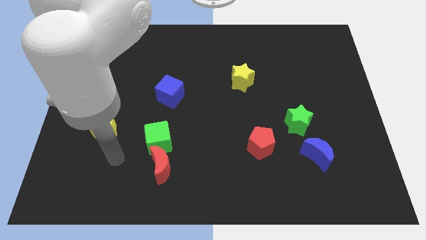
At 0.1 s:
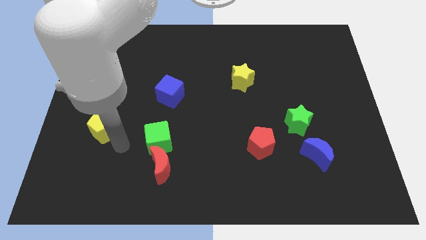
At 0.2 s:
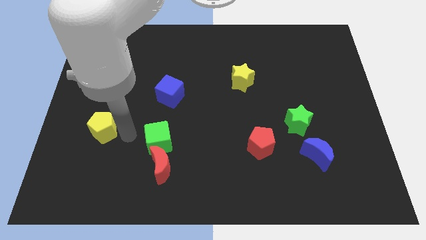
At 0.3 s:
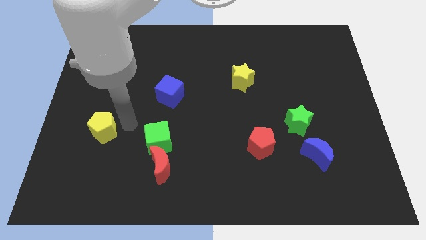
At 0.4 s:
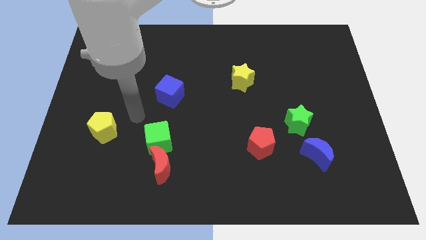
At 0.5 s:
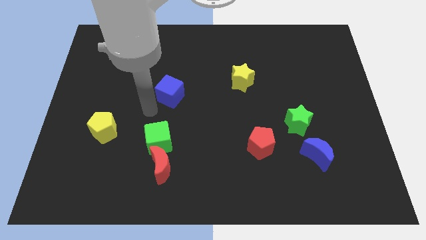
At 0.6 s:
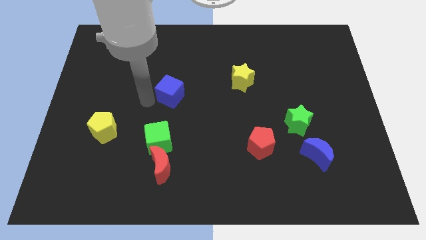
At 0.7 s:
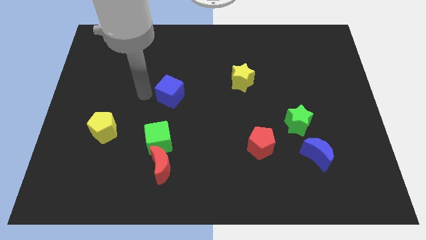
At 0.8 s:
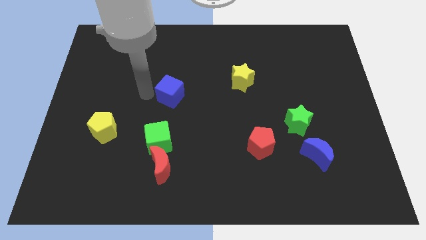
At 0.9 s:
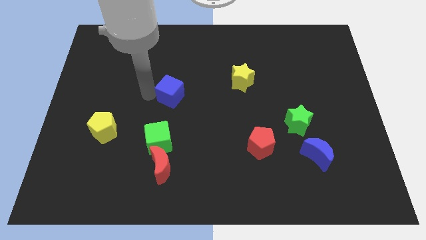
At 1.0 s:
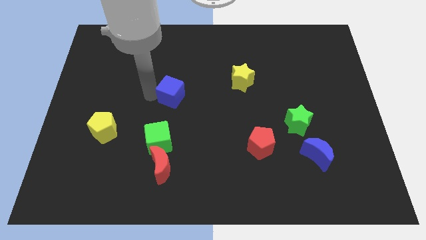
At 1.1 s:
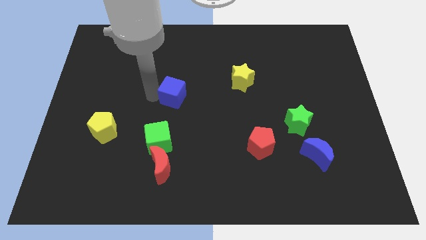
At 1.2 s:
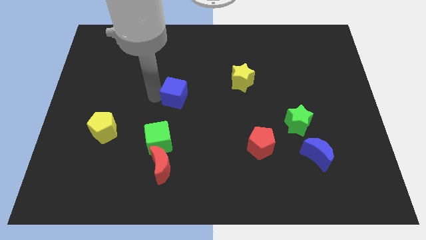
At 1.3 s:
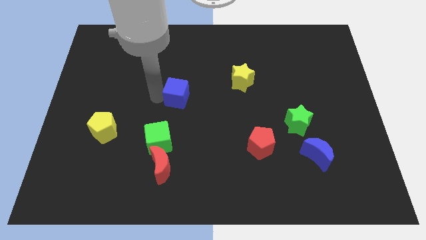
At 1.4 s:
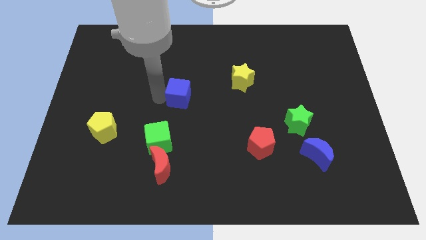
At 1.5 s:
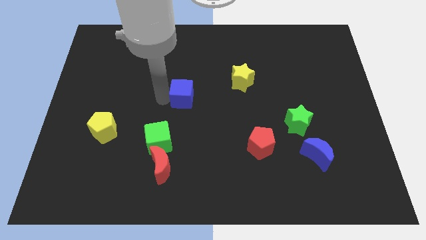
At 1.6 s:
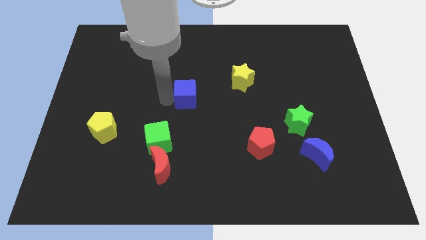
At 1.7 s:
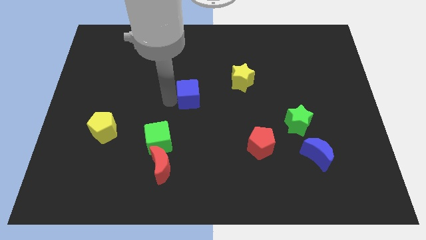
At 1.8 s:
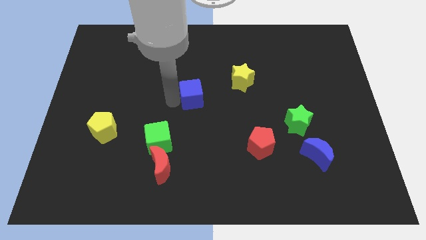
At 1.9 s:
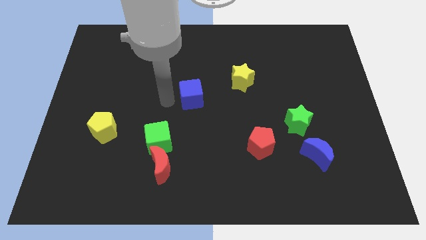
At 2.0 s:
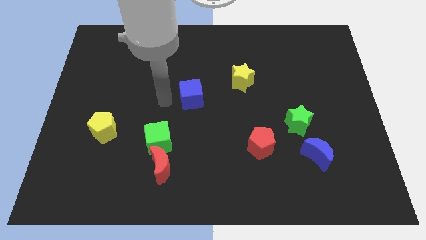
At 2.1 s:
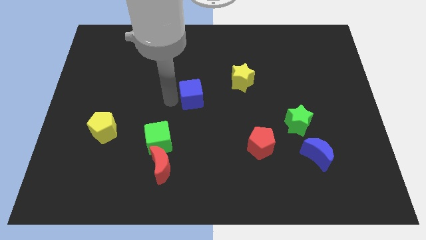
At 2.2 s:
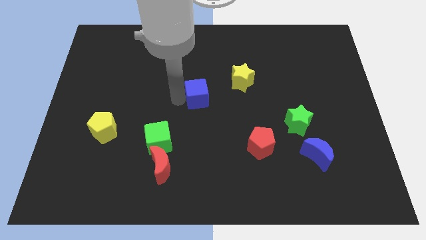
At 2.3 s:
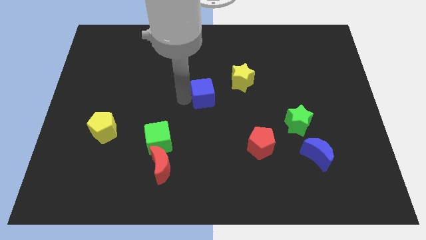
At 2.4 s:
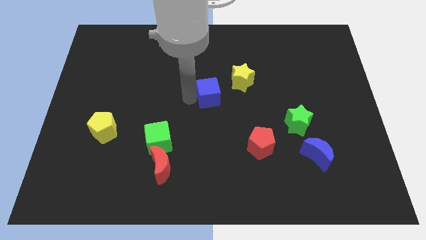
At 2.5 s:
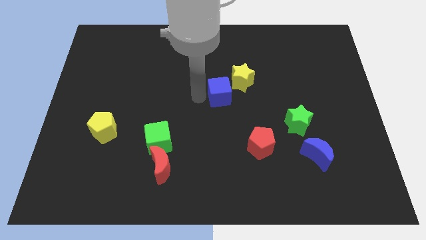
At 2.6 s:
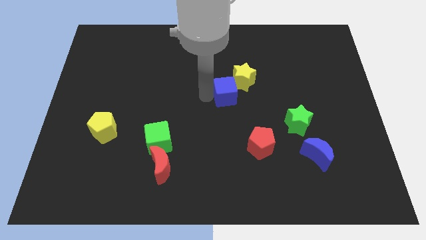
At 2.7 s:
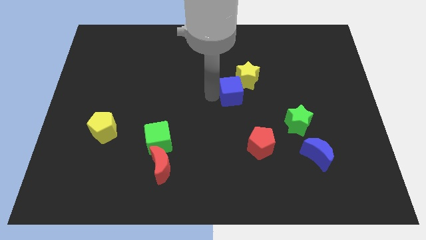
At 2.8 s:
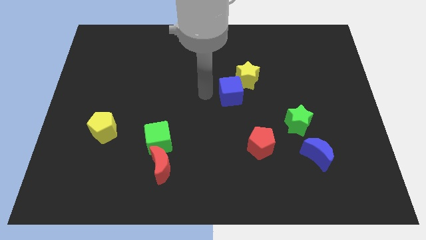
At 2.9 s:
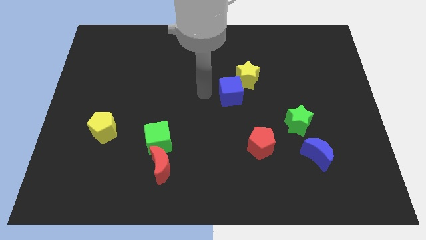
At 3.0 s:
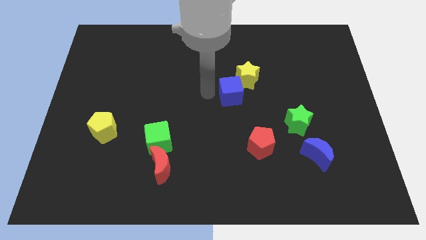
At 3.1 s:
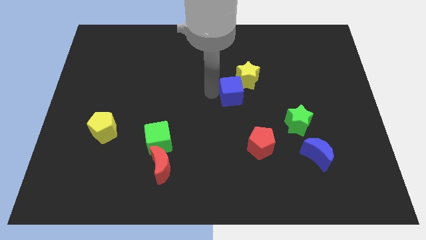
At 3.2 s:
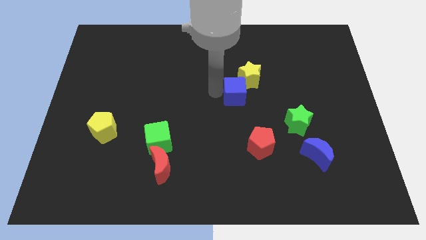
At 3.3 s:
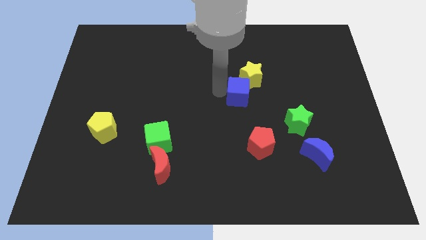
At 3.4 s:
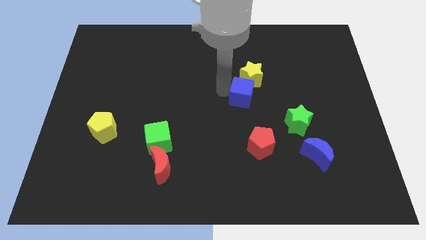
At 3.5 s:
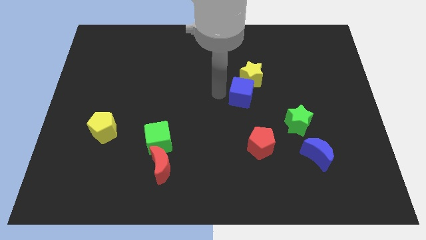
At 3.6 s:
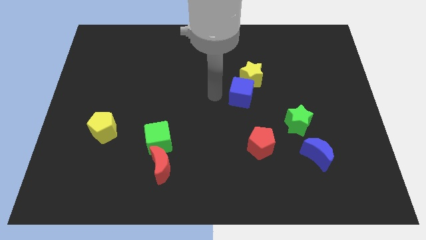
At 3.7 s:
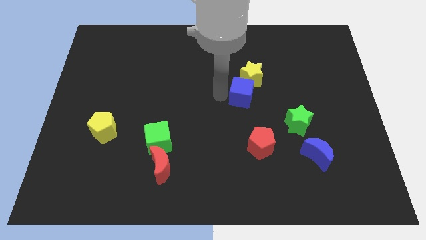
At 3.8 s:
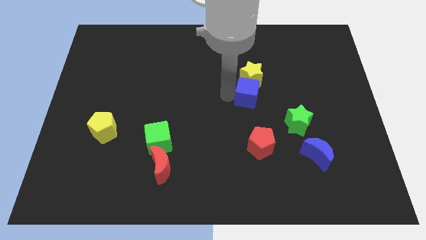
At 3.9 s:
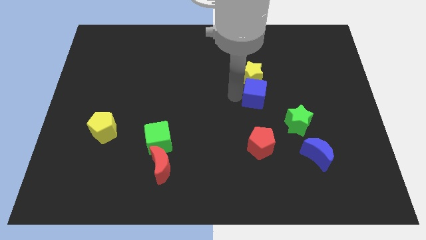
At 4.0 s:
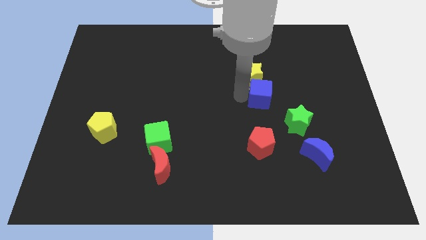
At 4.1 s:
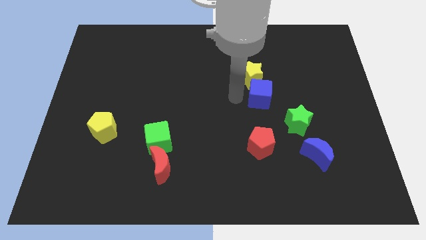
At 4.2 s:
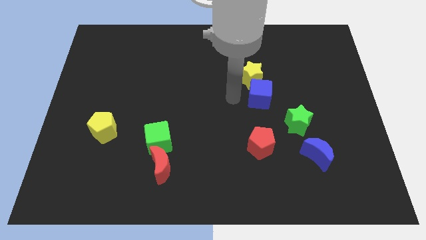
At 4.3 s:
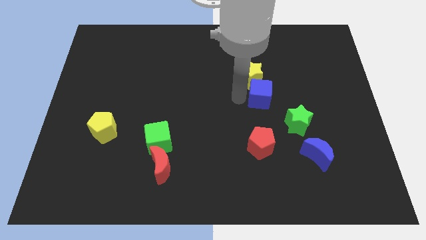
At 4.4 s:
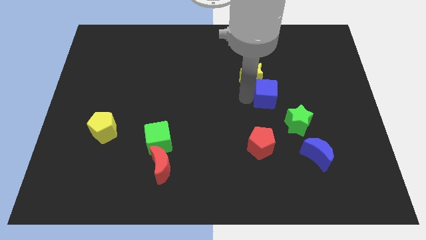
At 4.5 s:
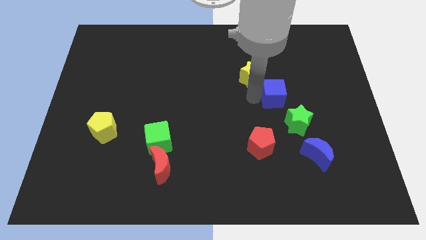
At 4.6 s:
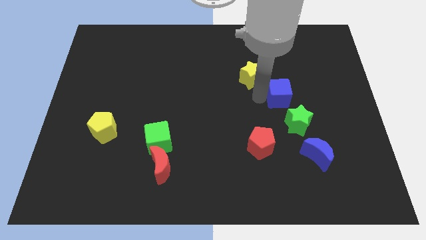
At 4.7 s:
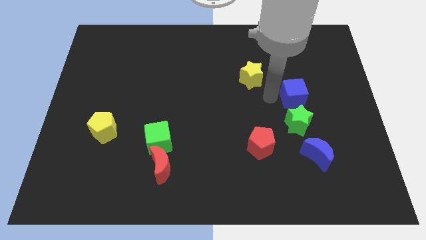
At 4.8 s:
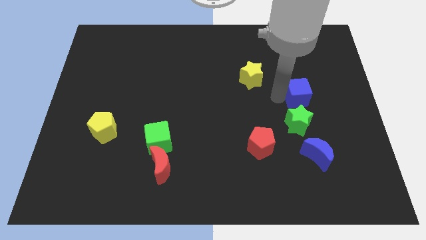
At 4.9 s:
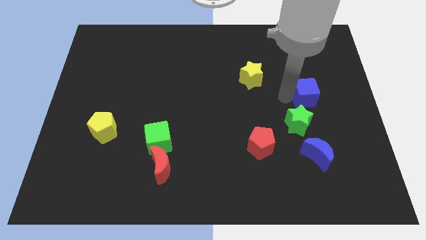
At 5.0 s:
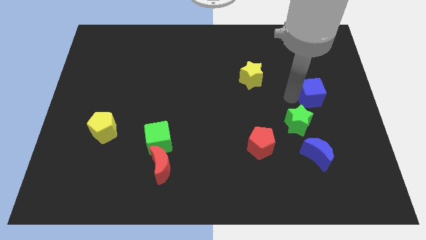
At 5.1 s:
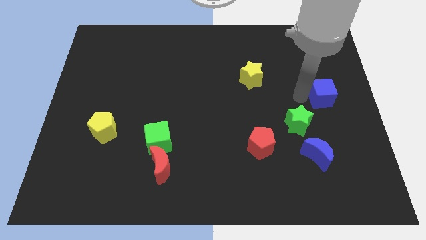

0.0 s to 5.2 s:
move the blue cube to the center right

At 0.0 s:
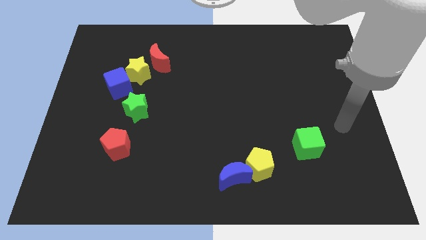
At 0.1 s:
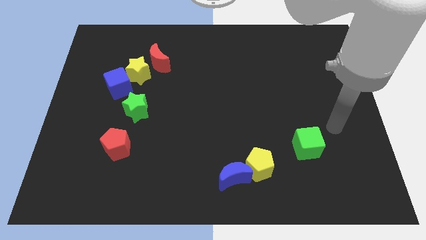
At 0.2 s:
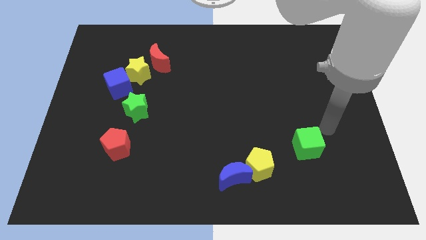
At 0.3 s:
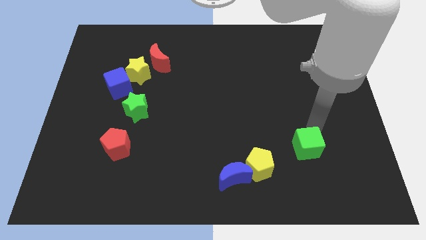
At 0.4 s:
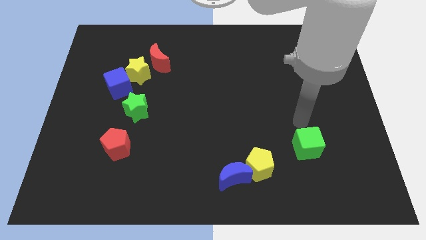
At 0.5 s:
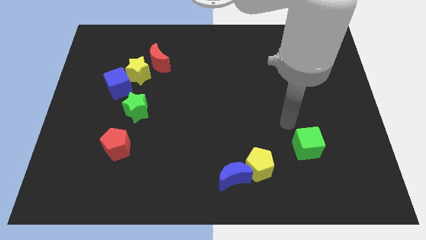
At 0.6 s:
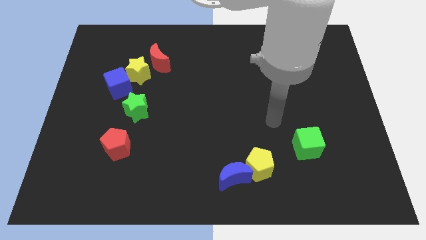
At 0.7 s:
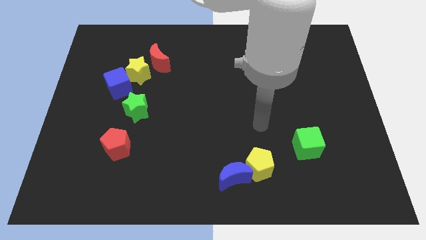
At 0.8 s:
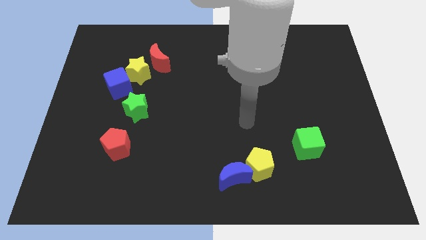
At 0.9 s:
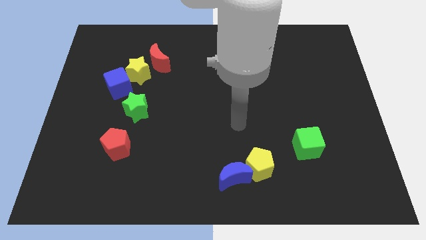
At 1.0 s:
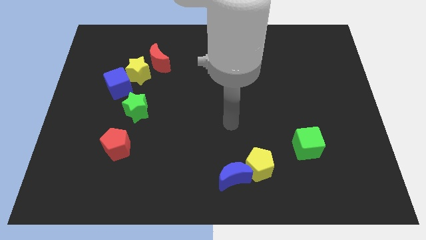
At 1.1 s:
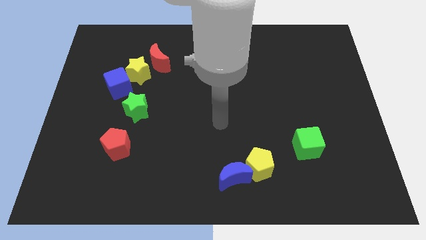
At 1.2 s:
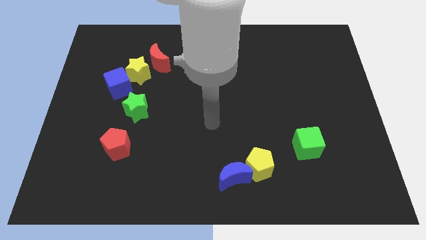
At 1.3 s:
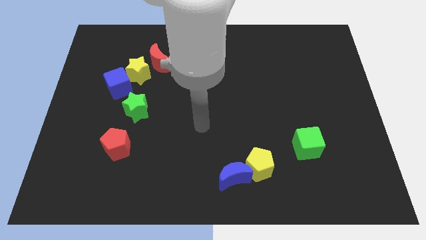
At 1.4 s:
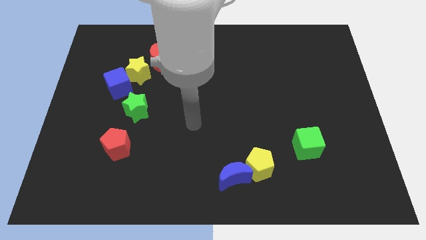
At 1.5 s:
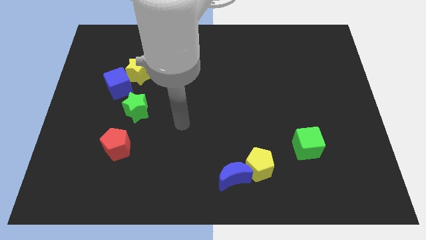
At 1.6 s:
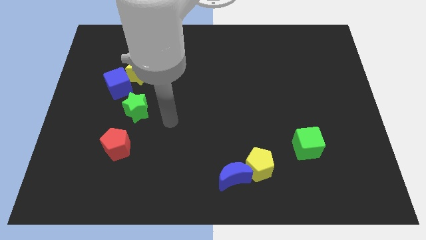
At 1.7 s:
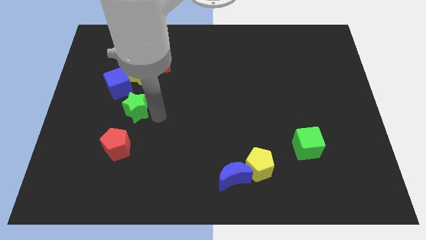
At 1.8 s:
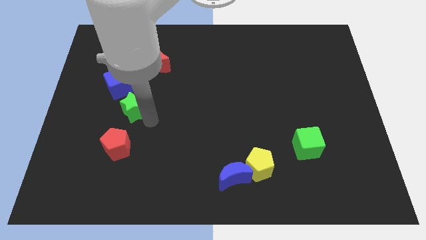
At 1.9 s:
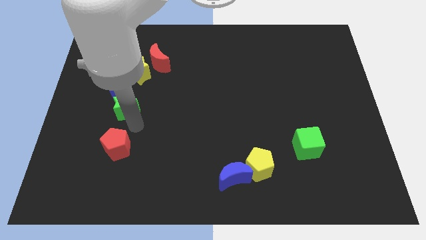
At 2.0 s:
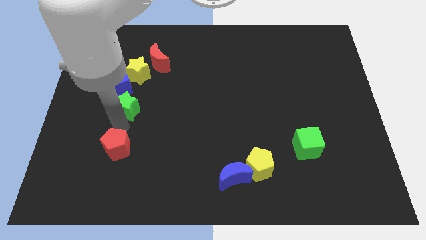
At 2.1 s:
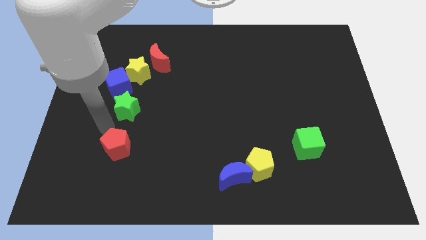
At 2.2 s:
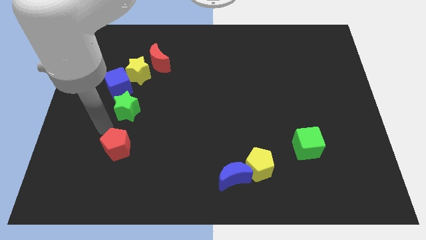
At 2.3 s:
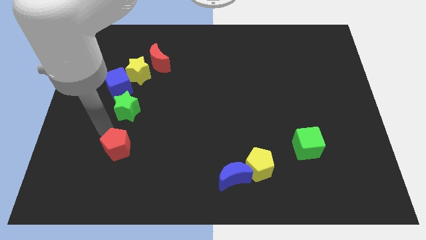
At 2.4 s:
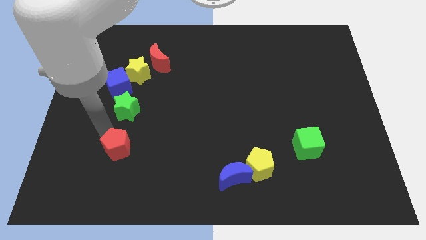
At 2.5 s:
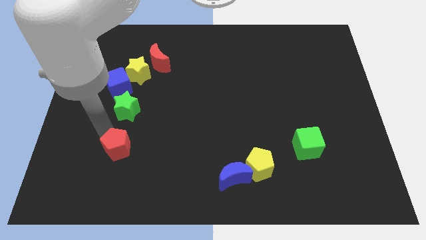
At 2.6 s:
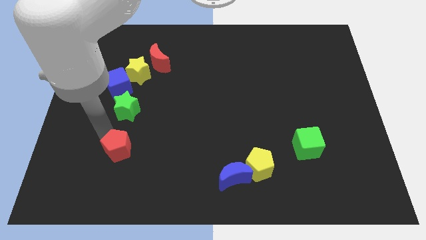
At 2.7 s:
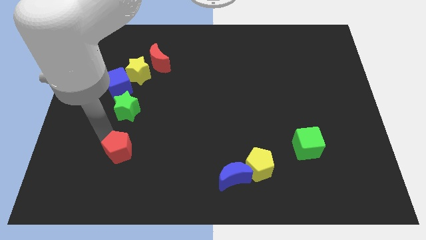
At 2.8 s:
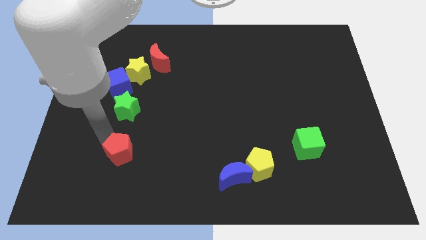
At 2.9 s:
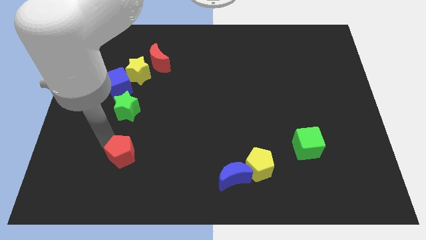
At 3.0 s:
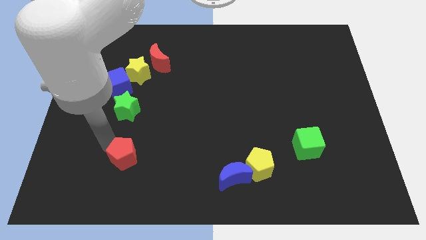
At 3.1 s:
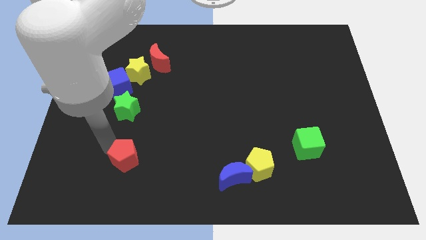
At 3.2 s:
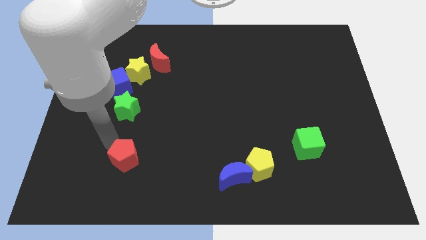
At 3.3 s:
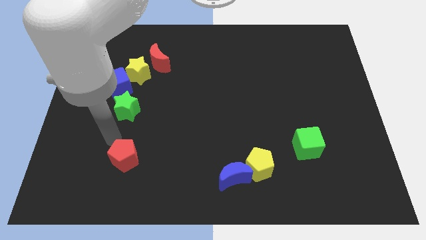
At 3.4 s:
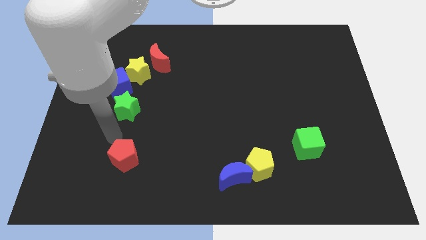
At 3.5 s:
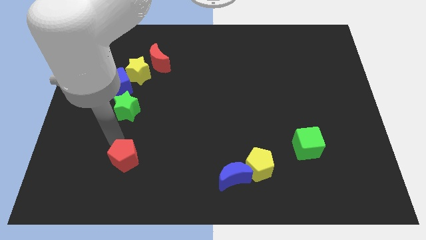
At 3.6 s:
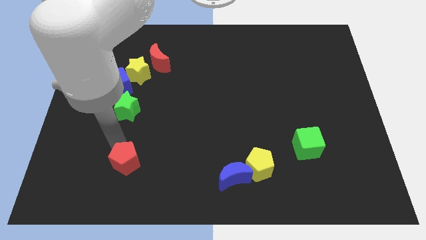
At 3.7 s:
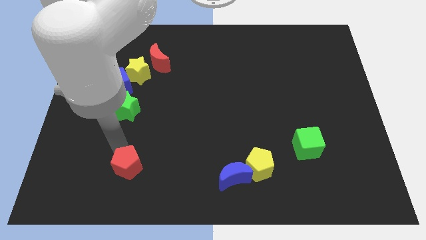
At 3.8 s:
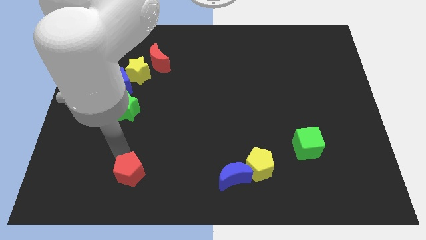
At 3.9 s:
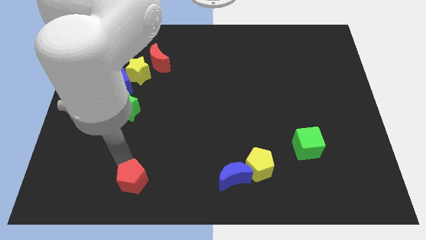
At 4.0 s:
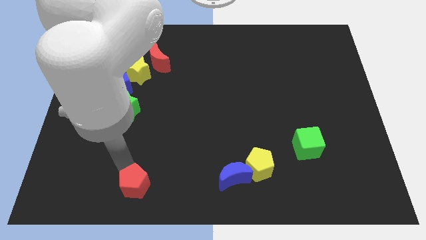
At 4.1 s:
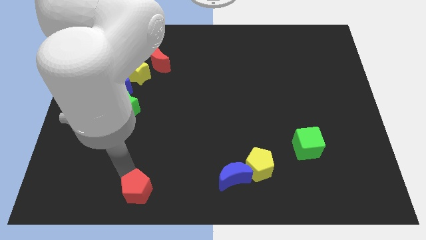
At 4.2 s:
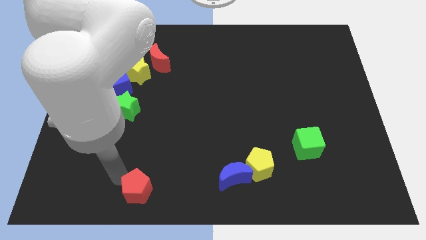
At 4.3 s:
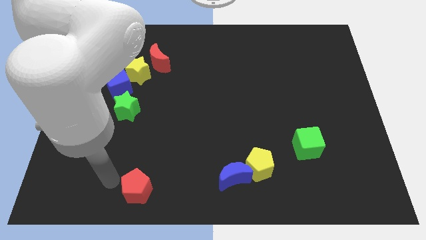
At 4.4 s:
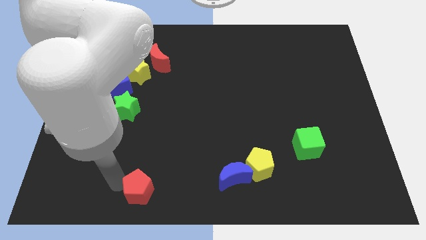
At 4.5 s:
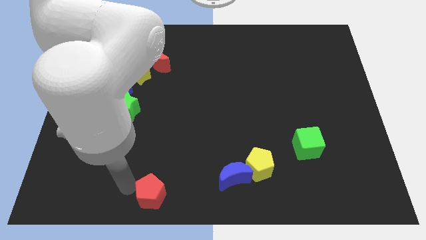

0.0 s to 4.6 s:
push the red pentagon to the bottom side
